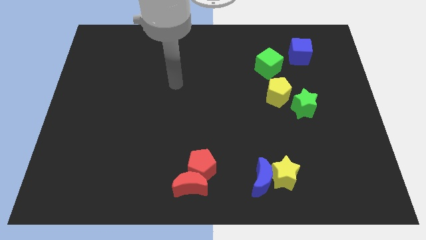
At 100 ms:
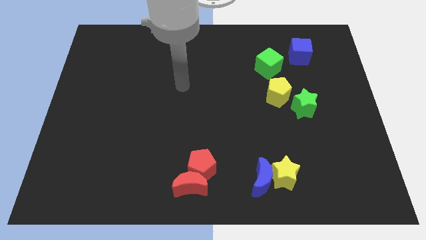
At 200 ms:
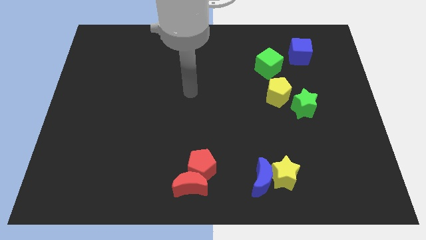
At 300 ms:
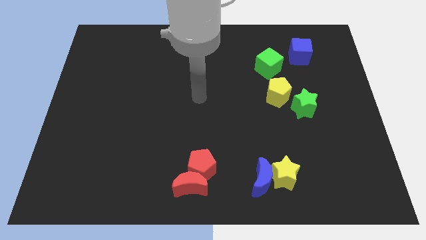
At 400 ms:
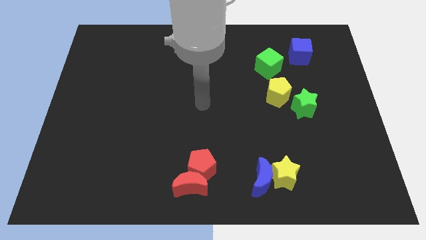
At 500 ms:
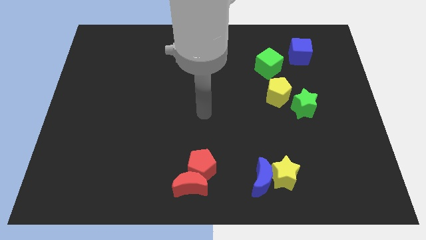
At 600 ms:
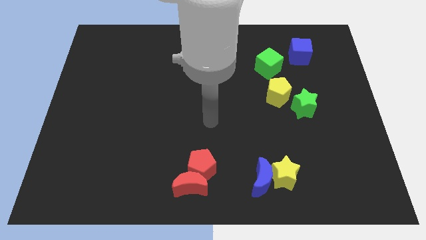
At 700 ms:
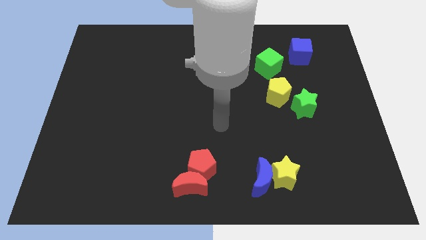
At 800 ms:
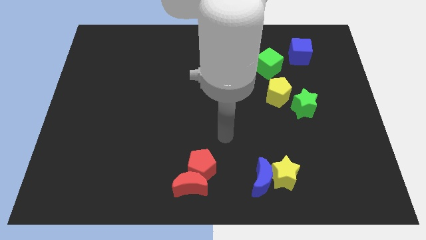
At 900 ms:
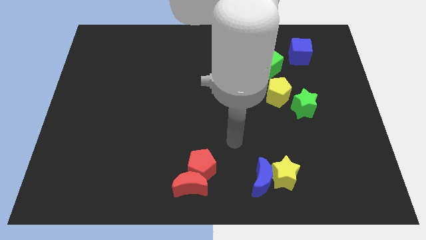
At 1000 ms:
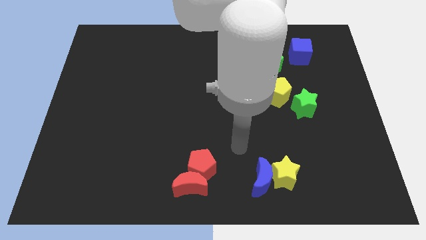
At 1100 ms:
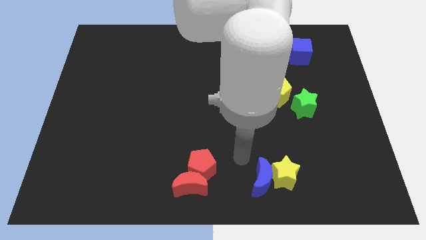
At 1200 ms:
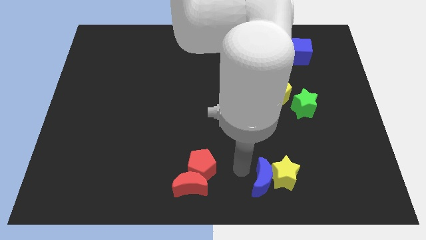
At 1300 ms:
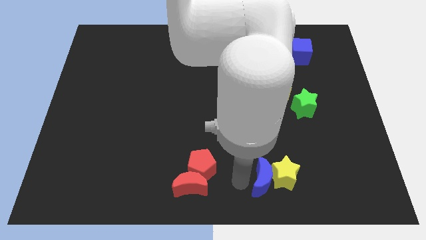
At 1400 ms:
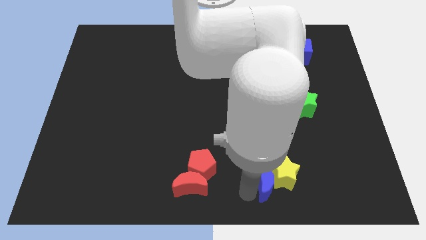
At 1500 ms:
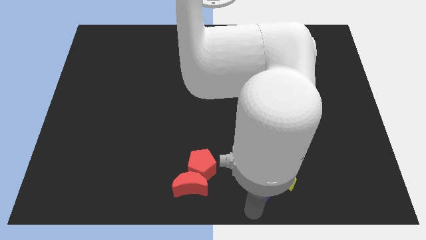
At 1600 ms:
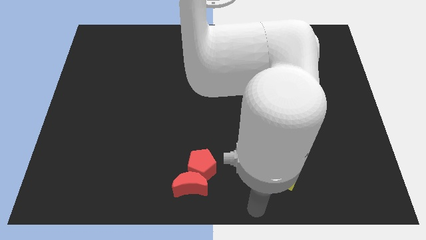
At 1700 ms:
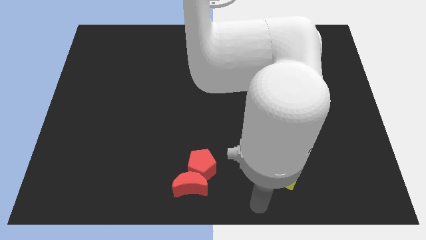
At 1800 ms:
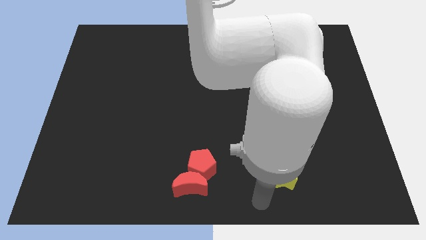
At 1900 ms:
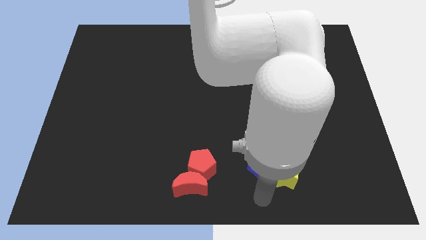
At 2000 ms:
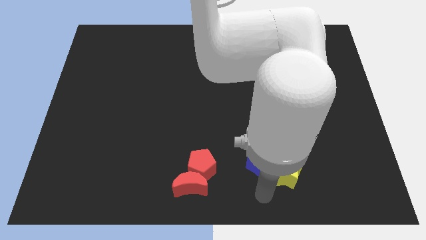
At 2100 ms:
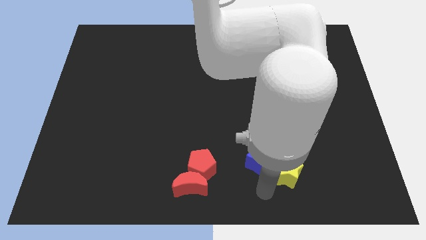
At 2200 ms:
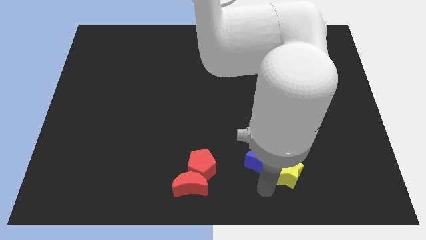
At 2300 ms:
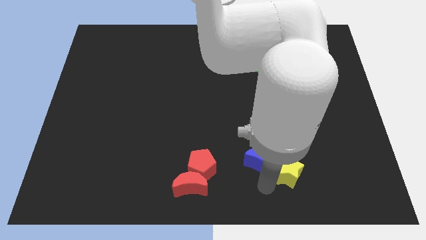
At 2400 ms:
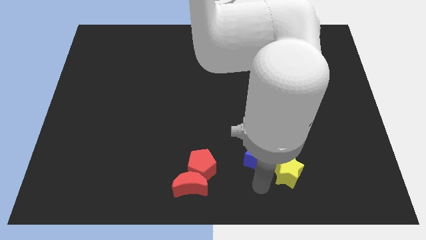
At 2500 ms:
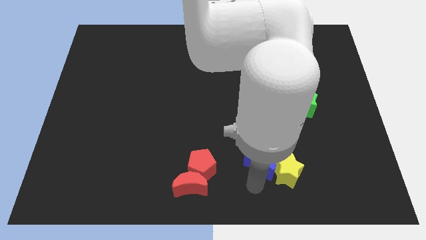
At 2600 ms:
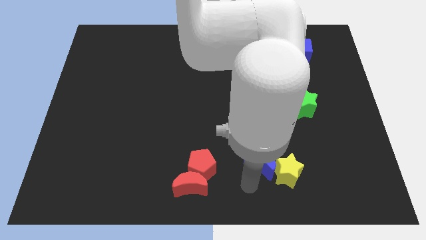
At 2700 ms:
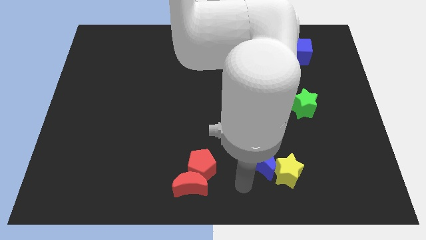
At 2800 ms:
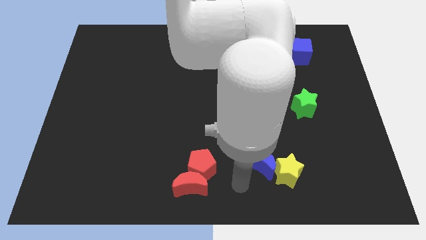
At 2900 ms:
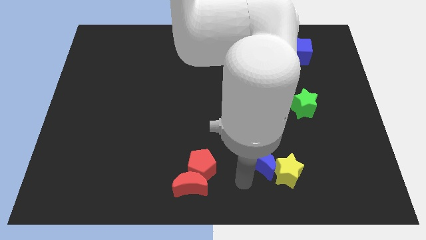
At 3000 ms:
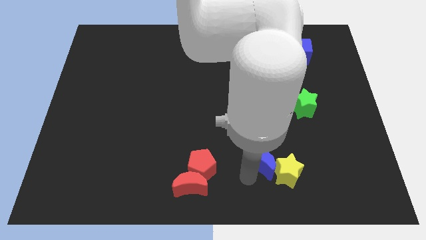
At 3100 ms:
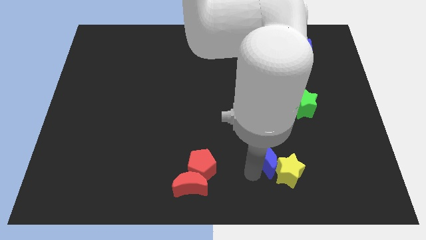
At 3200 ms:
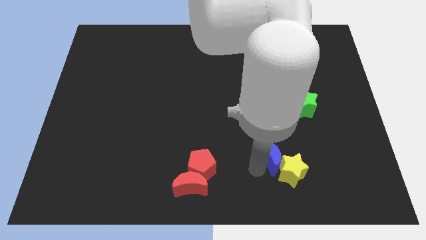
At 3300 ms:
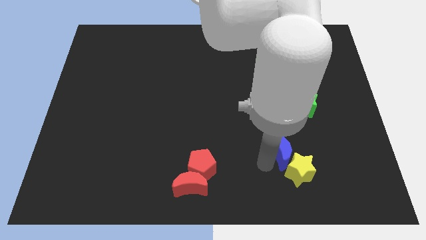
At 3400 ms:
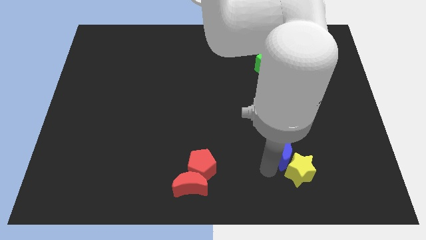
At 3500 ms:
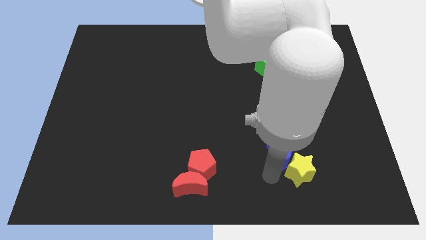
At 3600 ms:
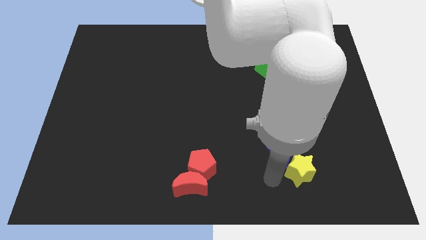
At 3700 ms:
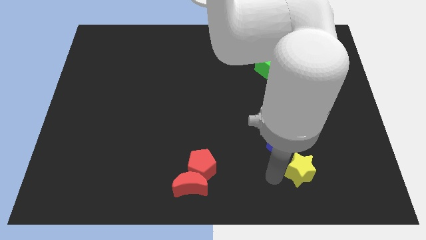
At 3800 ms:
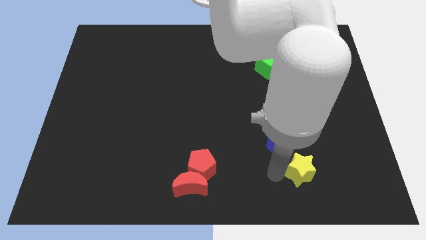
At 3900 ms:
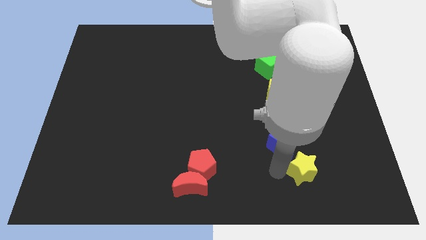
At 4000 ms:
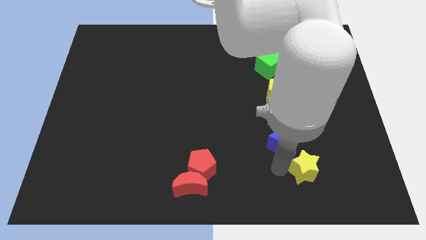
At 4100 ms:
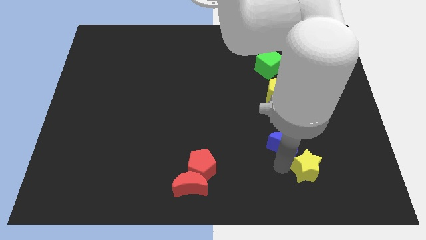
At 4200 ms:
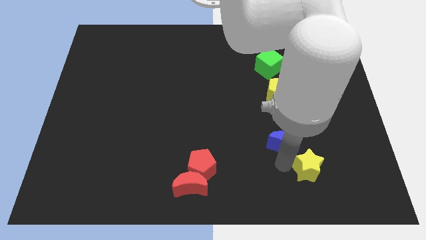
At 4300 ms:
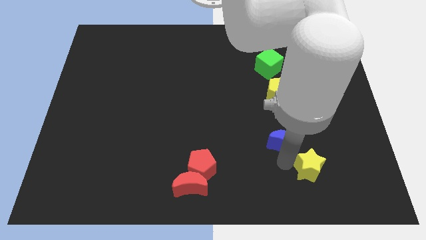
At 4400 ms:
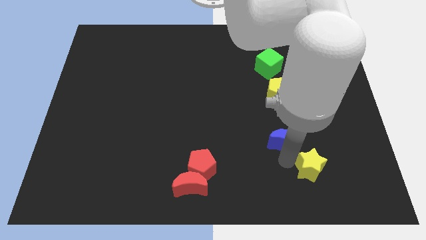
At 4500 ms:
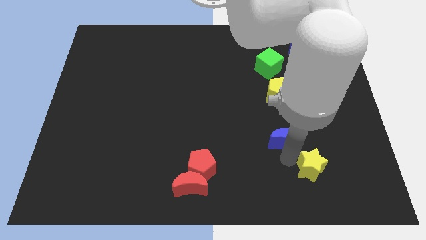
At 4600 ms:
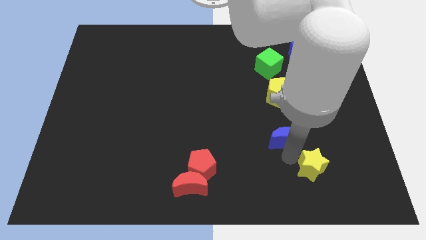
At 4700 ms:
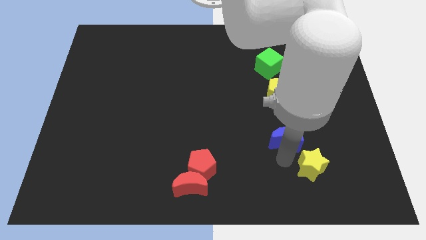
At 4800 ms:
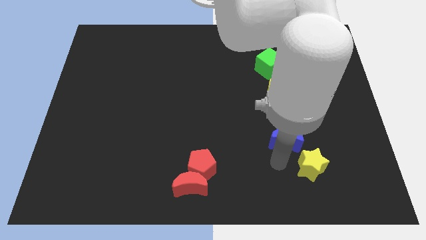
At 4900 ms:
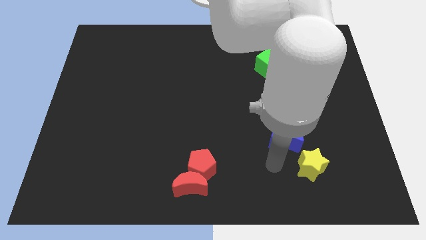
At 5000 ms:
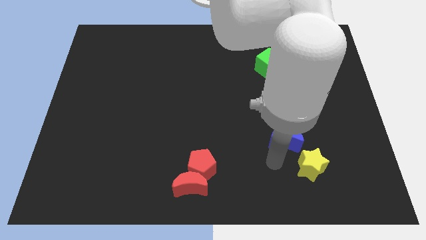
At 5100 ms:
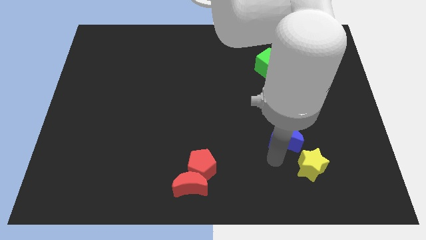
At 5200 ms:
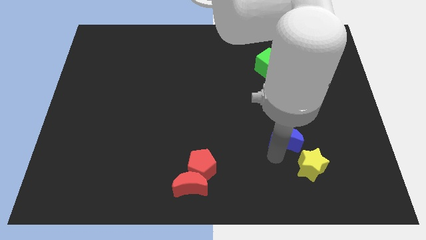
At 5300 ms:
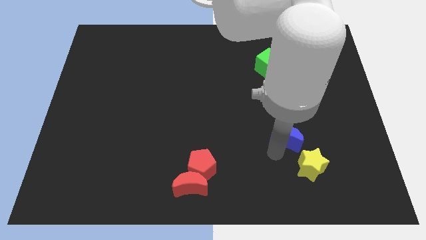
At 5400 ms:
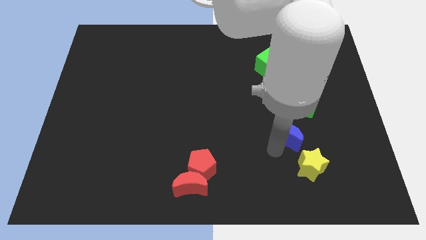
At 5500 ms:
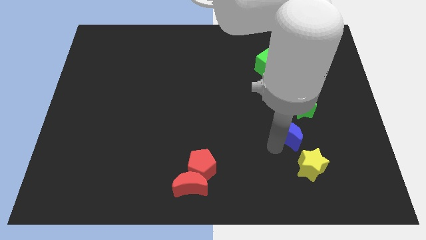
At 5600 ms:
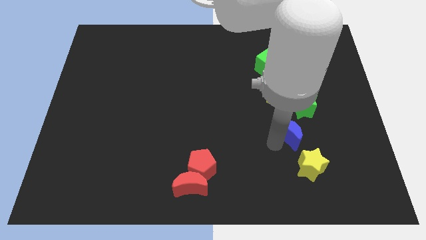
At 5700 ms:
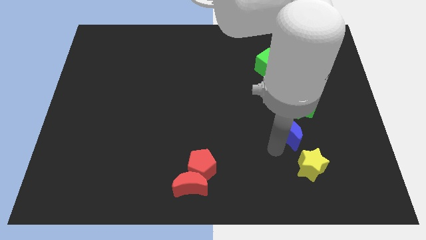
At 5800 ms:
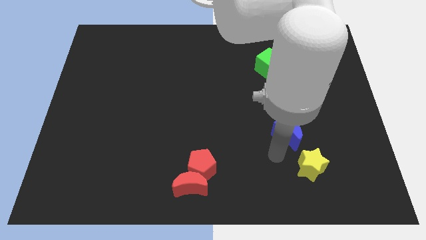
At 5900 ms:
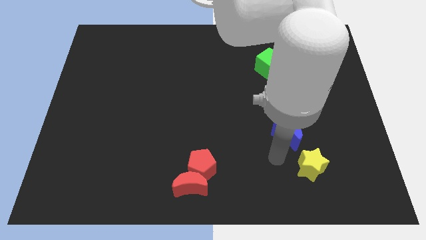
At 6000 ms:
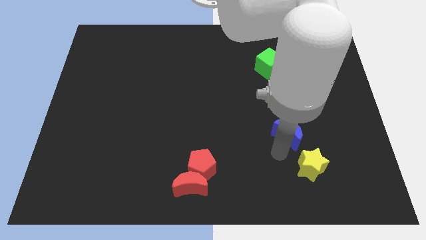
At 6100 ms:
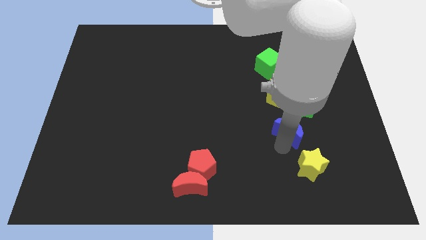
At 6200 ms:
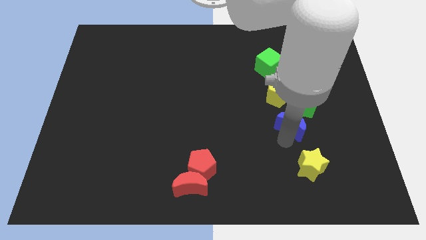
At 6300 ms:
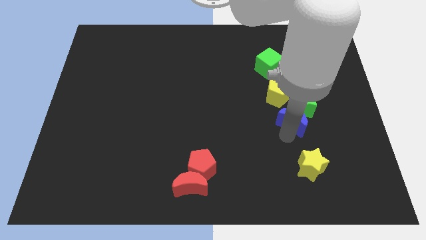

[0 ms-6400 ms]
slide the blue moon towards the green star

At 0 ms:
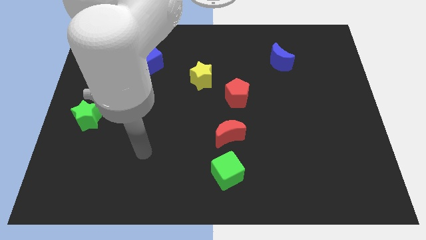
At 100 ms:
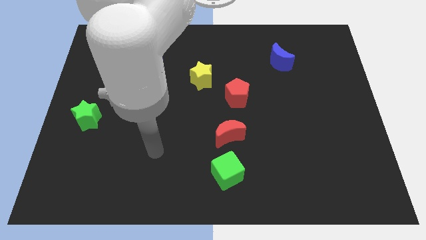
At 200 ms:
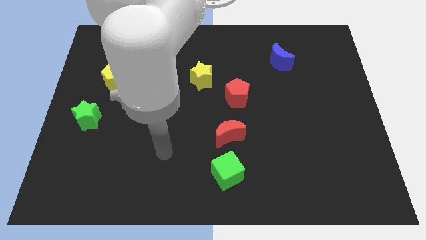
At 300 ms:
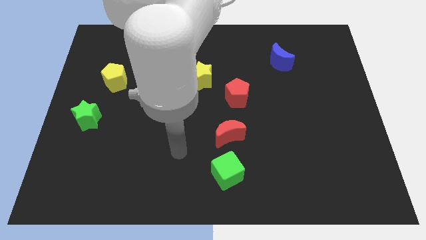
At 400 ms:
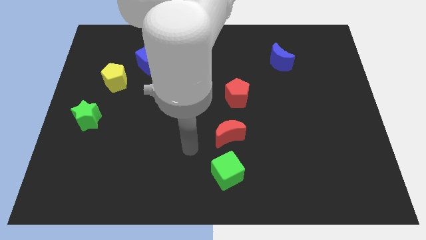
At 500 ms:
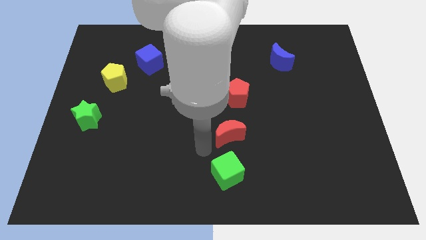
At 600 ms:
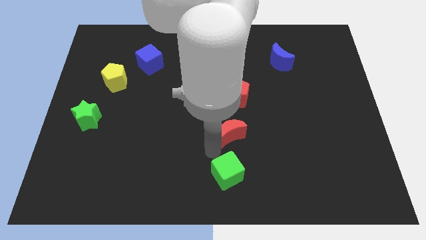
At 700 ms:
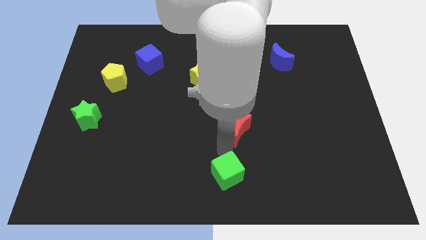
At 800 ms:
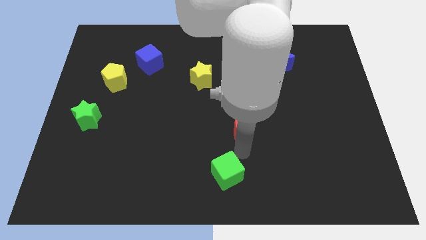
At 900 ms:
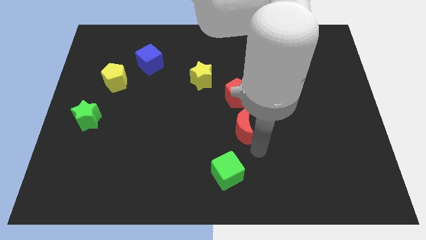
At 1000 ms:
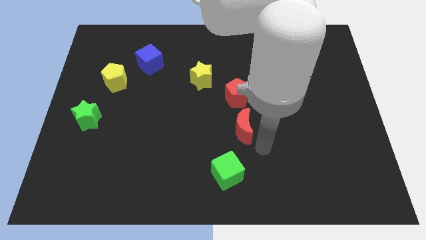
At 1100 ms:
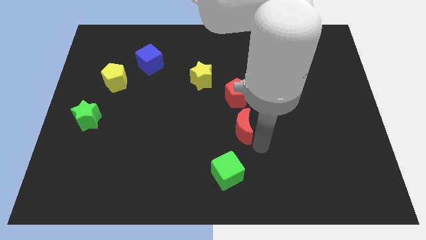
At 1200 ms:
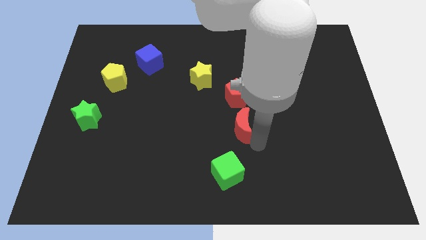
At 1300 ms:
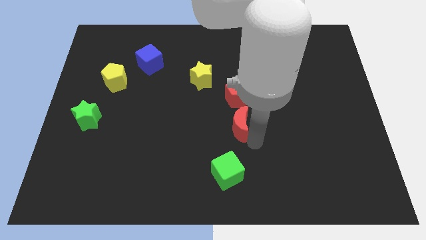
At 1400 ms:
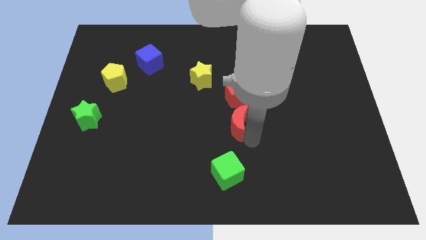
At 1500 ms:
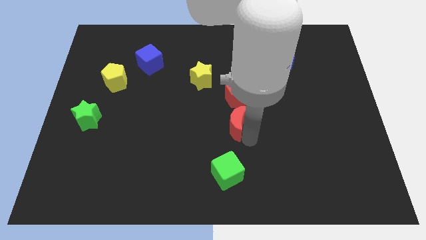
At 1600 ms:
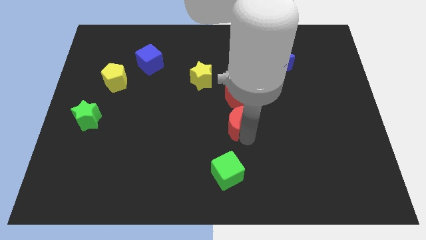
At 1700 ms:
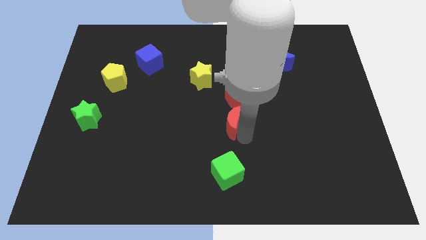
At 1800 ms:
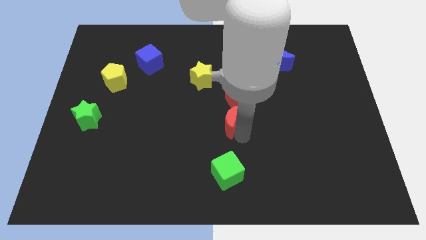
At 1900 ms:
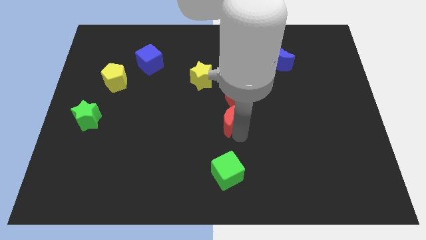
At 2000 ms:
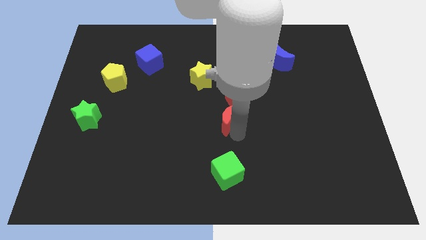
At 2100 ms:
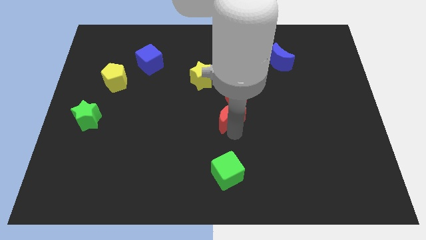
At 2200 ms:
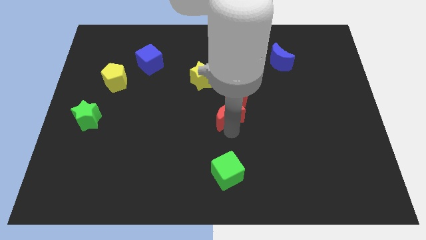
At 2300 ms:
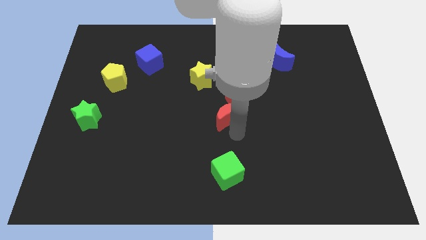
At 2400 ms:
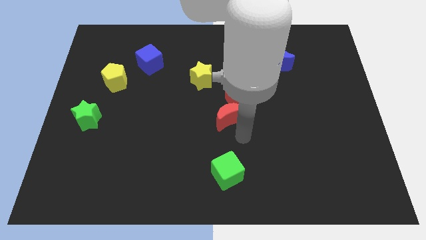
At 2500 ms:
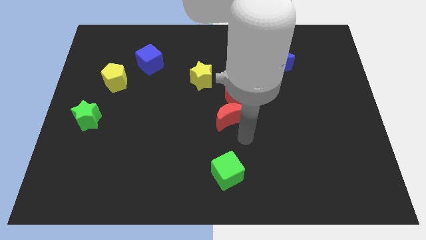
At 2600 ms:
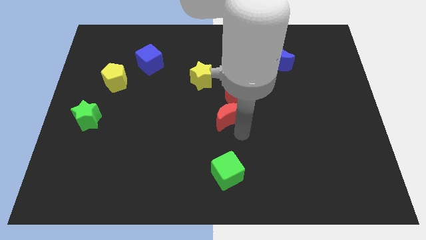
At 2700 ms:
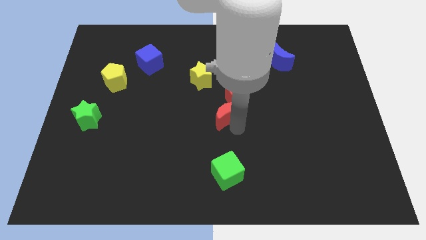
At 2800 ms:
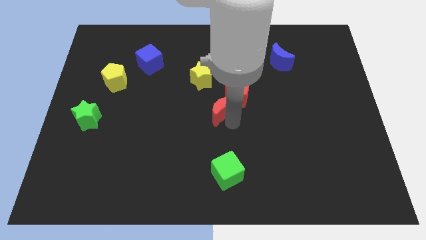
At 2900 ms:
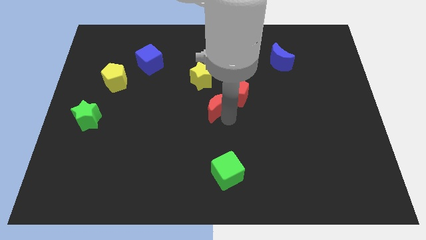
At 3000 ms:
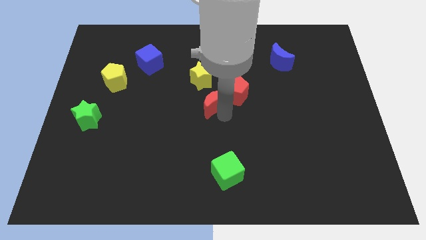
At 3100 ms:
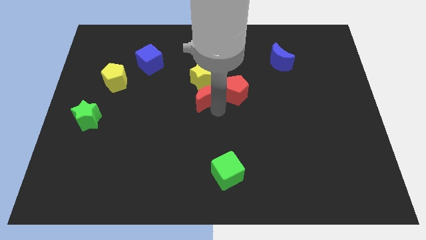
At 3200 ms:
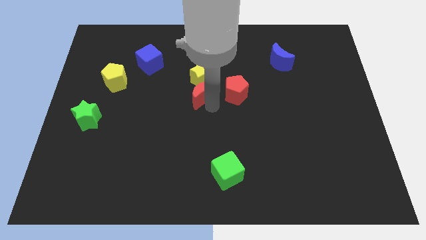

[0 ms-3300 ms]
move the red moon close to the yellow star
